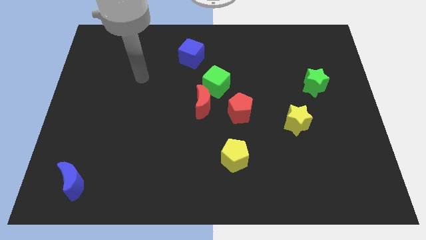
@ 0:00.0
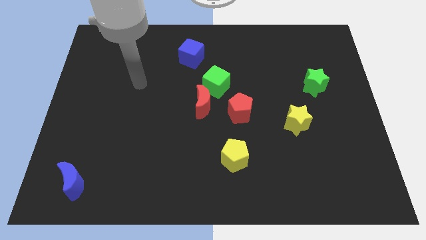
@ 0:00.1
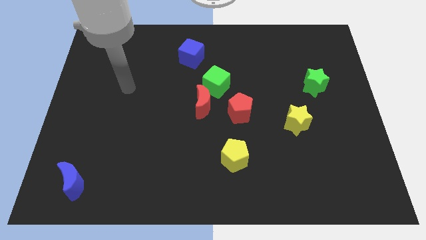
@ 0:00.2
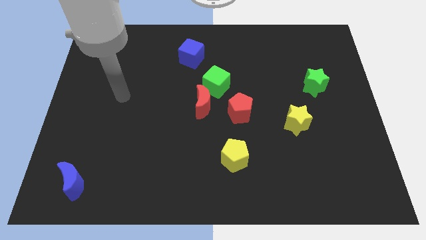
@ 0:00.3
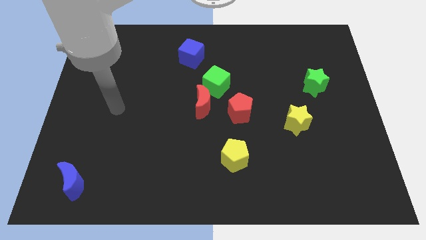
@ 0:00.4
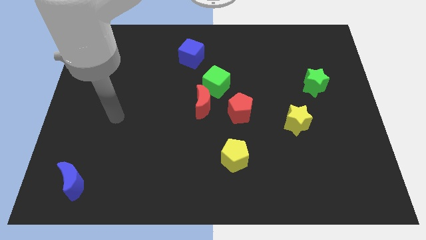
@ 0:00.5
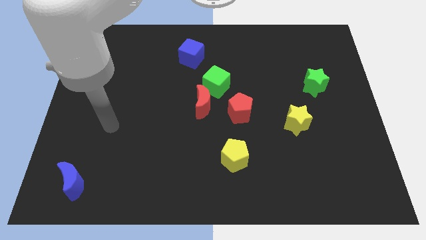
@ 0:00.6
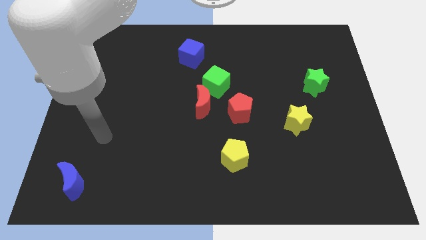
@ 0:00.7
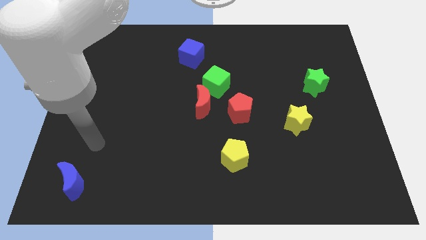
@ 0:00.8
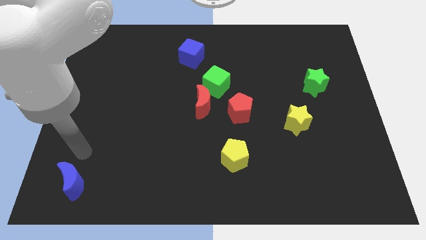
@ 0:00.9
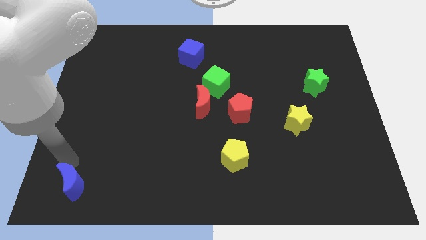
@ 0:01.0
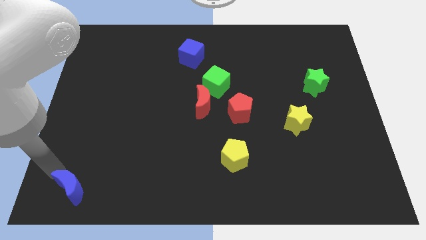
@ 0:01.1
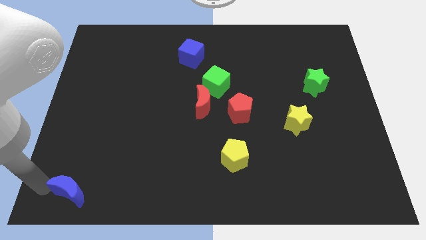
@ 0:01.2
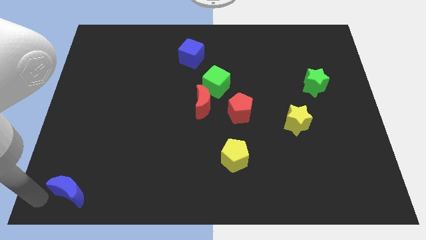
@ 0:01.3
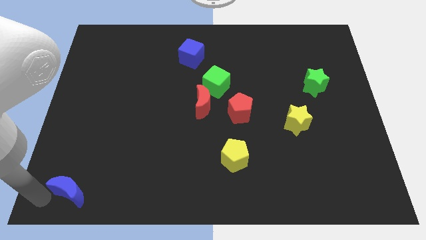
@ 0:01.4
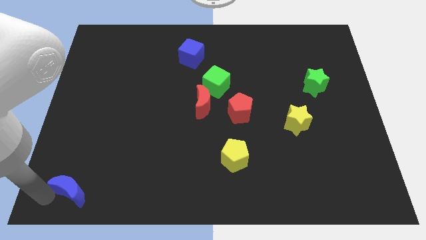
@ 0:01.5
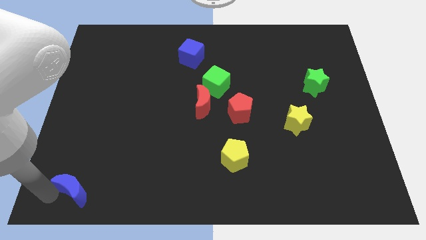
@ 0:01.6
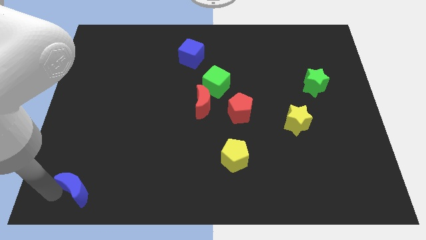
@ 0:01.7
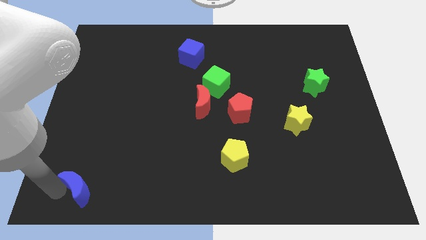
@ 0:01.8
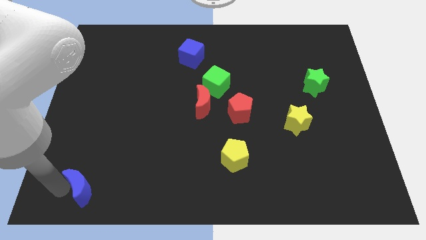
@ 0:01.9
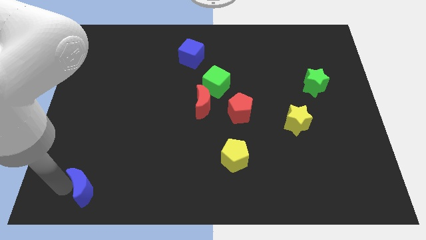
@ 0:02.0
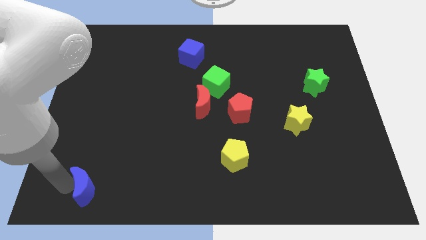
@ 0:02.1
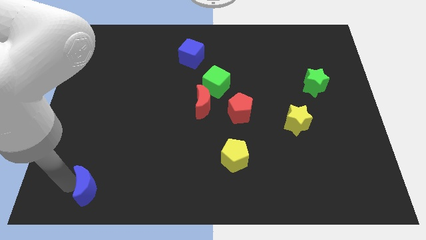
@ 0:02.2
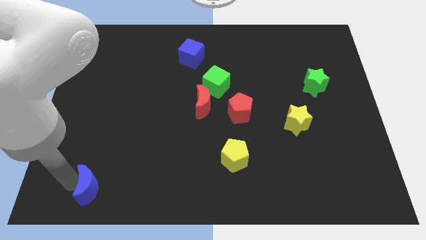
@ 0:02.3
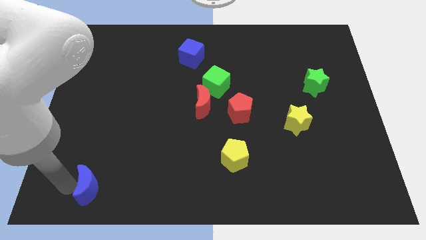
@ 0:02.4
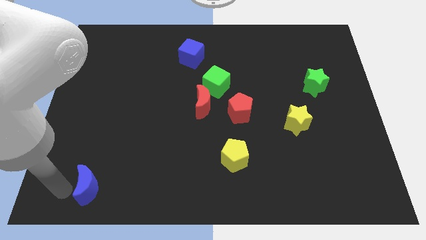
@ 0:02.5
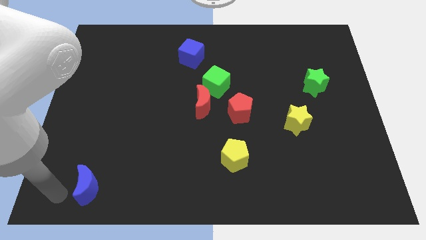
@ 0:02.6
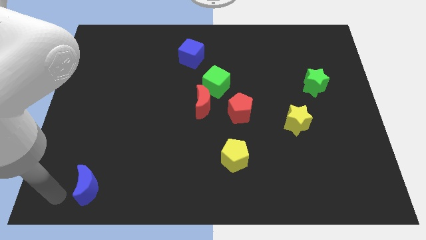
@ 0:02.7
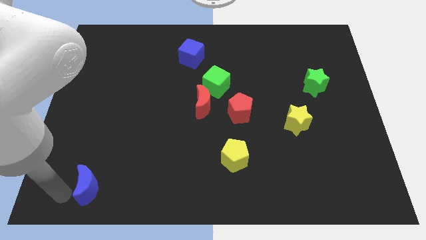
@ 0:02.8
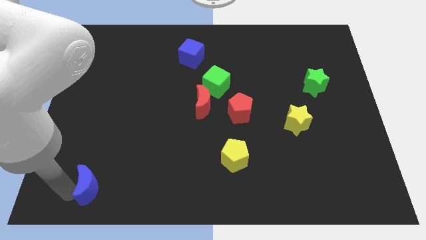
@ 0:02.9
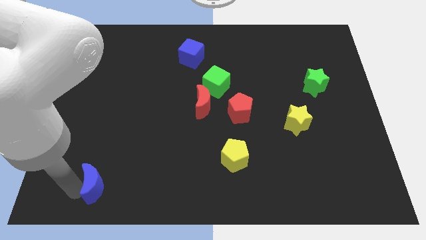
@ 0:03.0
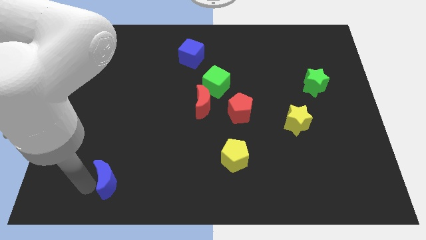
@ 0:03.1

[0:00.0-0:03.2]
push the blue moon to the right a bit

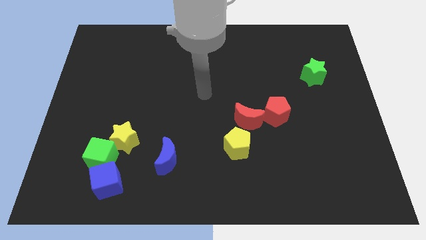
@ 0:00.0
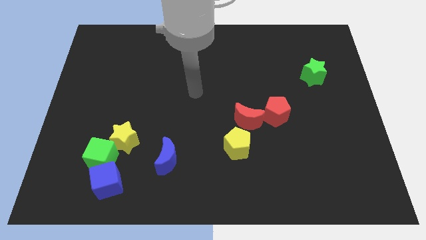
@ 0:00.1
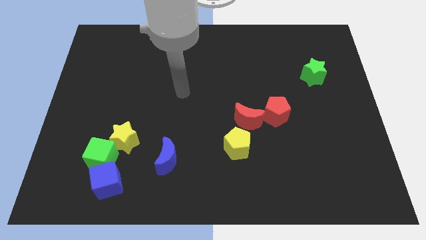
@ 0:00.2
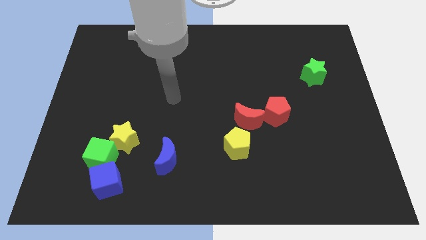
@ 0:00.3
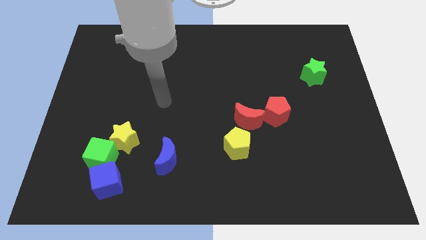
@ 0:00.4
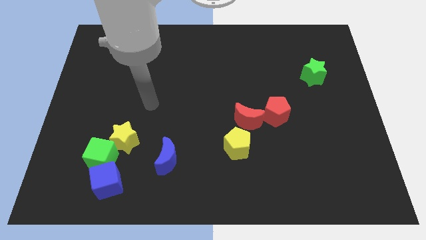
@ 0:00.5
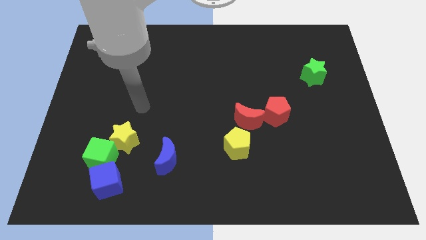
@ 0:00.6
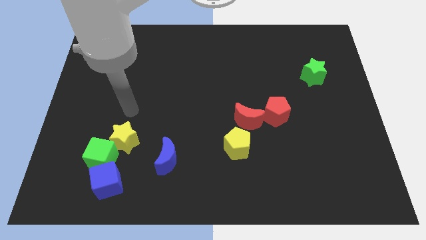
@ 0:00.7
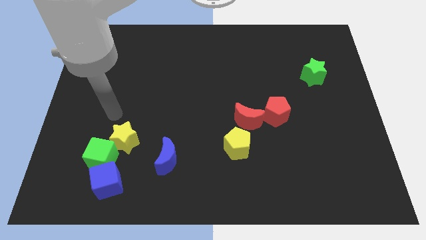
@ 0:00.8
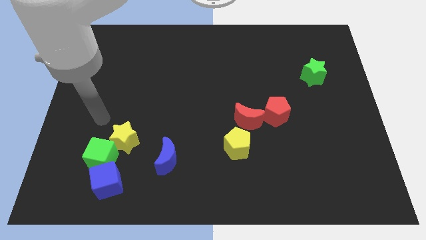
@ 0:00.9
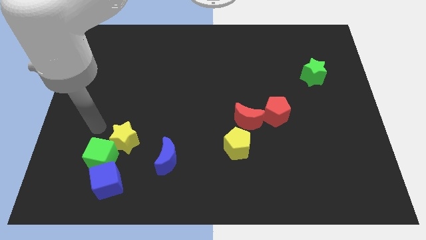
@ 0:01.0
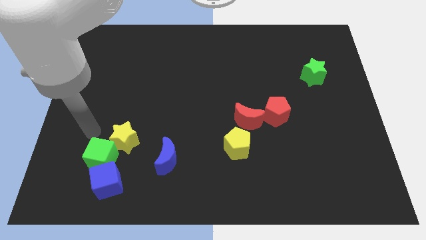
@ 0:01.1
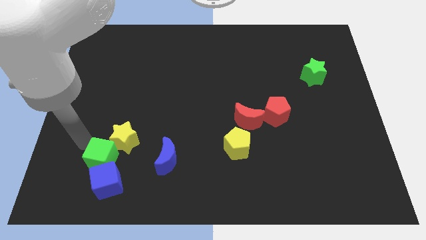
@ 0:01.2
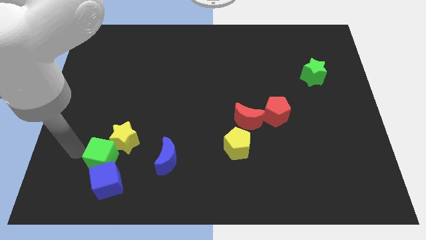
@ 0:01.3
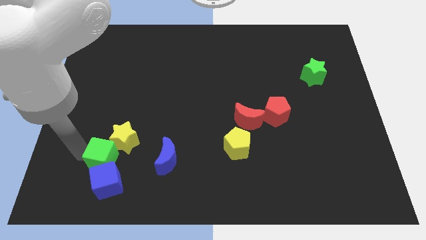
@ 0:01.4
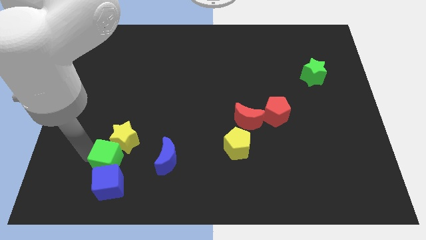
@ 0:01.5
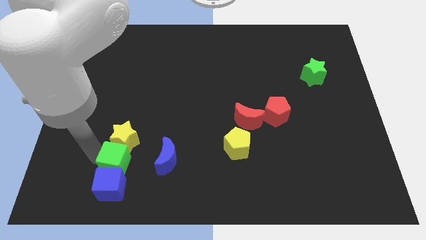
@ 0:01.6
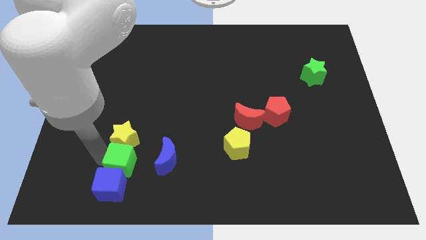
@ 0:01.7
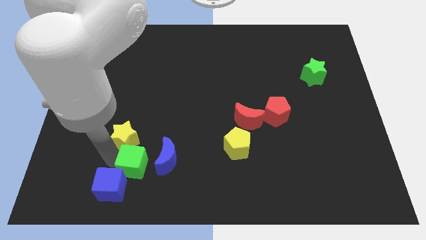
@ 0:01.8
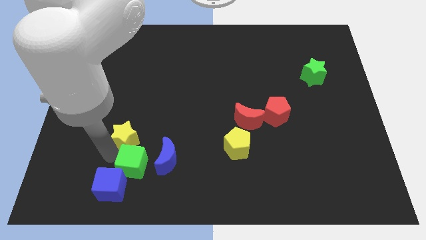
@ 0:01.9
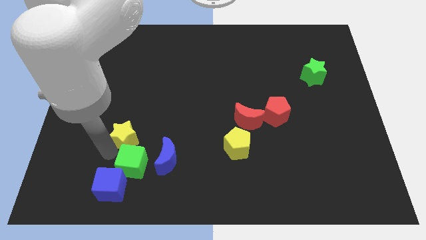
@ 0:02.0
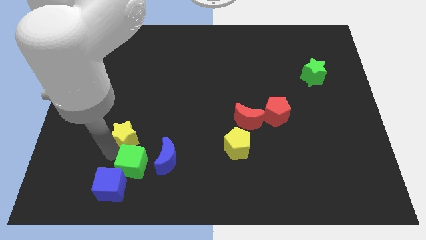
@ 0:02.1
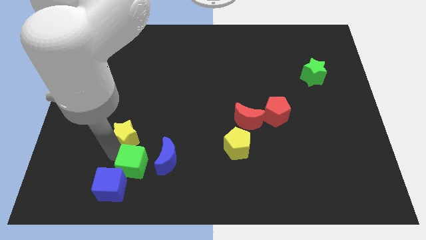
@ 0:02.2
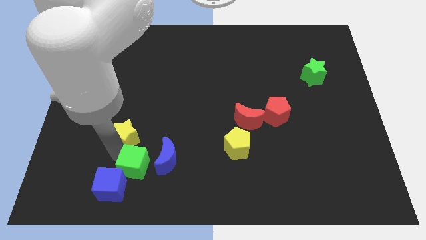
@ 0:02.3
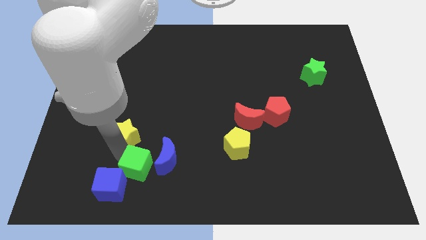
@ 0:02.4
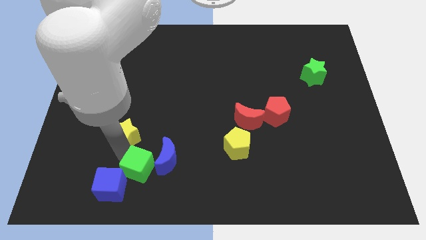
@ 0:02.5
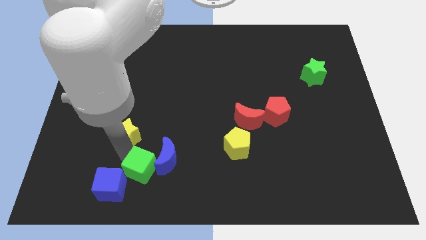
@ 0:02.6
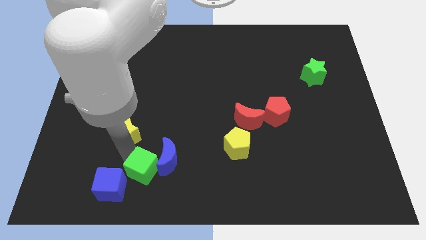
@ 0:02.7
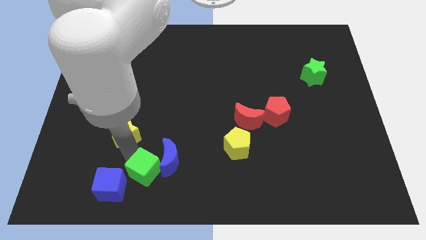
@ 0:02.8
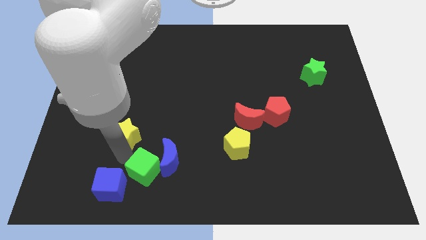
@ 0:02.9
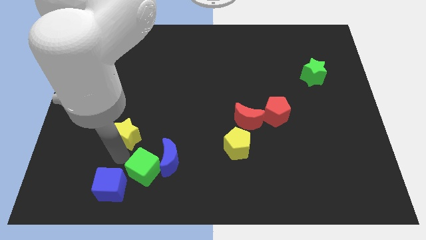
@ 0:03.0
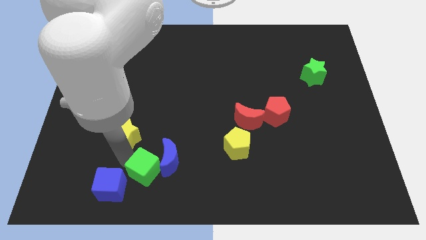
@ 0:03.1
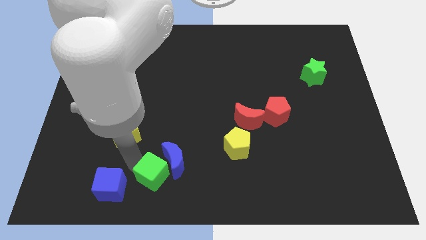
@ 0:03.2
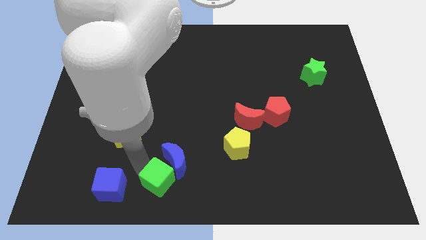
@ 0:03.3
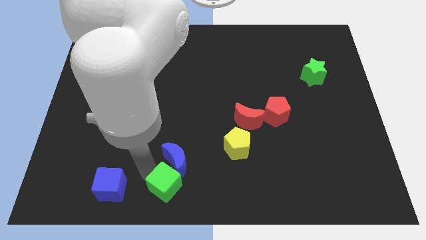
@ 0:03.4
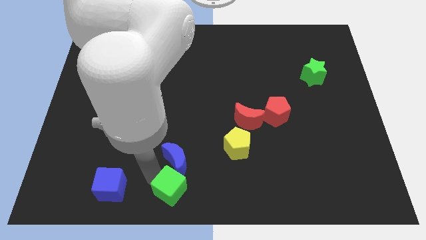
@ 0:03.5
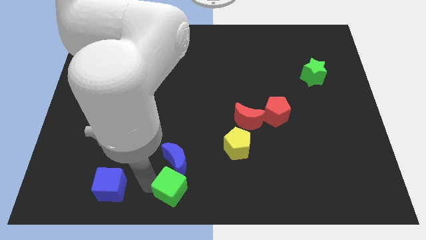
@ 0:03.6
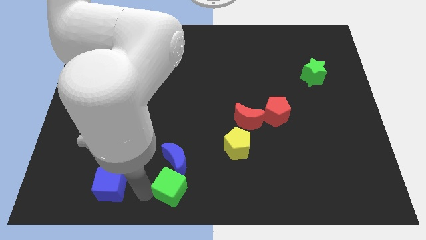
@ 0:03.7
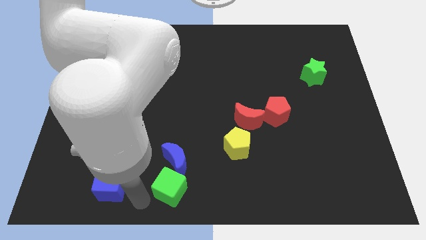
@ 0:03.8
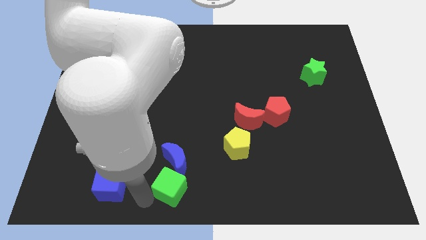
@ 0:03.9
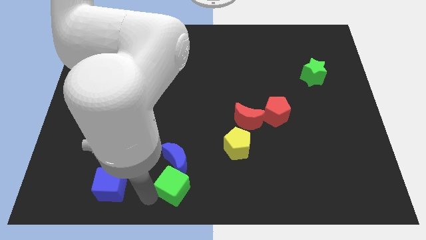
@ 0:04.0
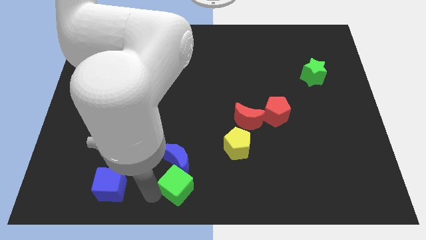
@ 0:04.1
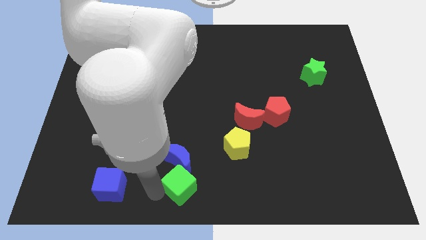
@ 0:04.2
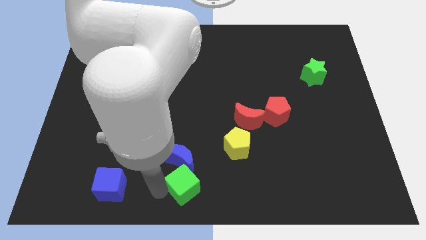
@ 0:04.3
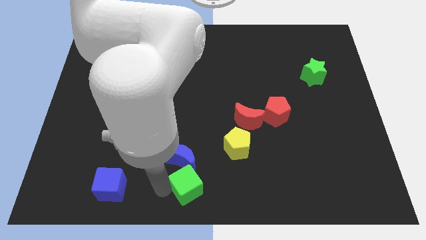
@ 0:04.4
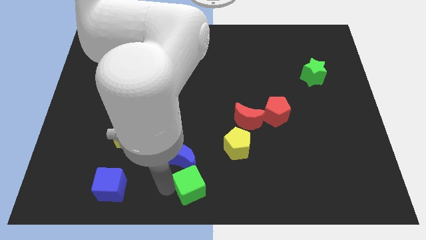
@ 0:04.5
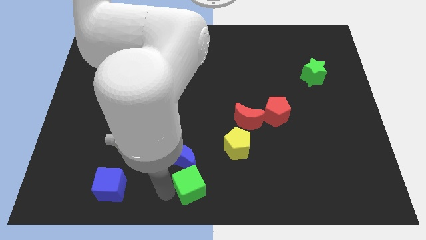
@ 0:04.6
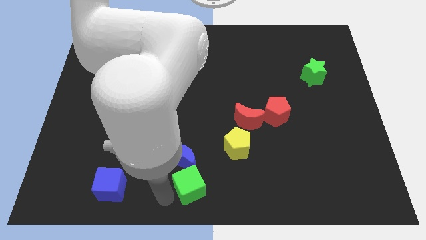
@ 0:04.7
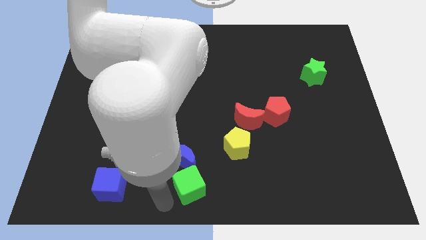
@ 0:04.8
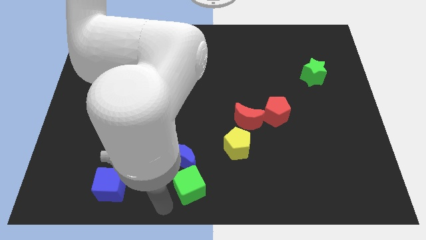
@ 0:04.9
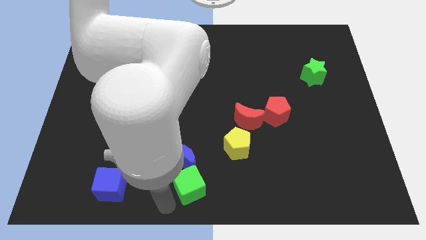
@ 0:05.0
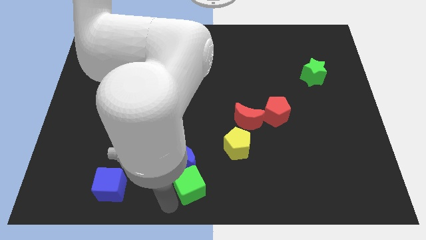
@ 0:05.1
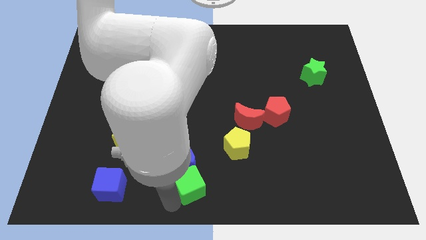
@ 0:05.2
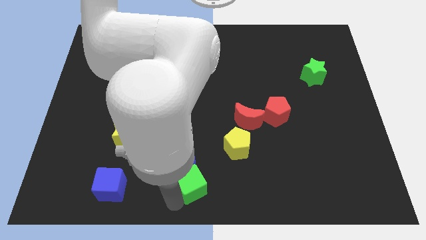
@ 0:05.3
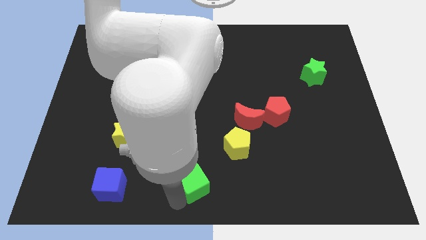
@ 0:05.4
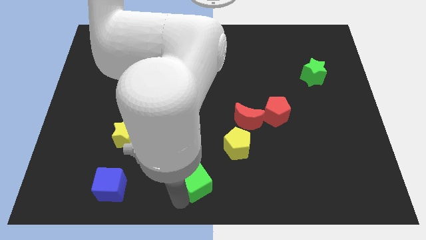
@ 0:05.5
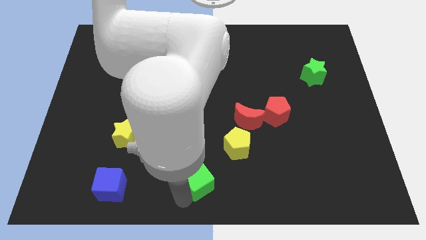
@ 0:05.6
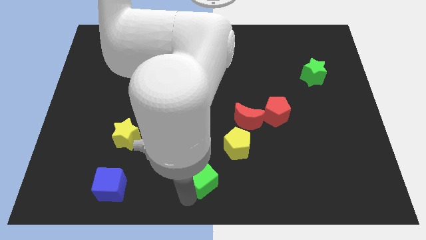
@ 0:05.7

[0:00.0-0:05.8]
push the green cube right
